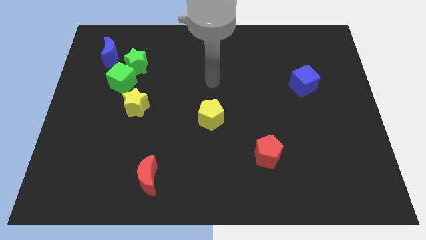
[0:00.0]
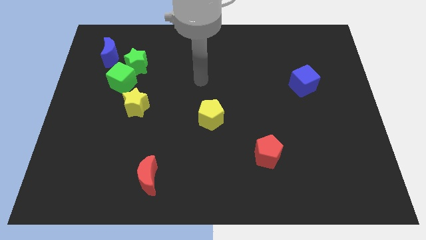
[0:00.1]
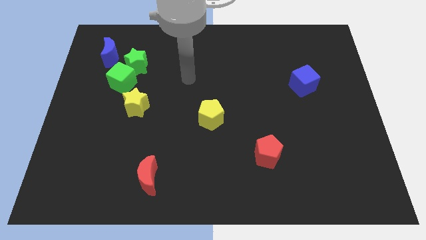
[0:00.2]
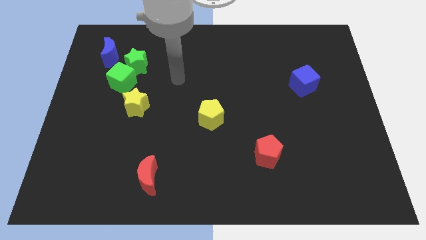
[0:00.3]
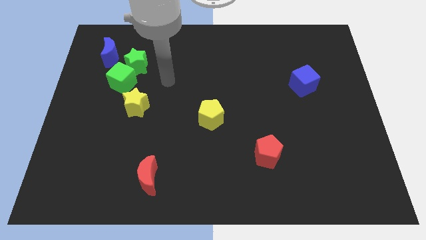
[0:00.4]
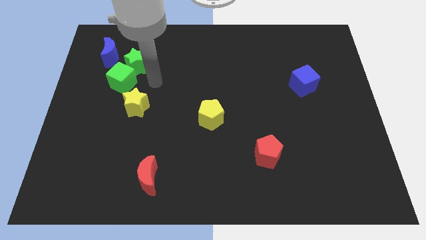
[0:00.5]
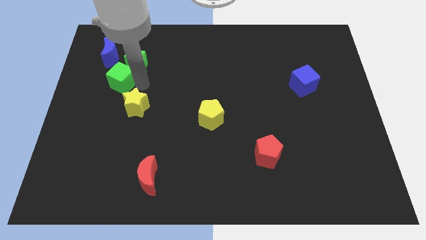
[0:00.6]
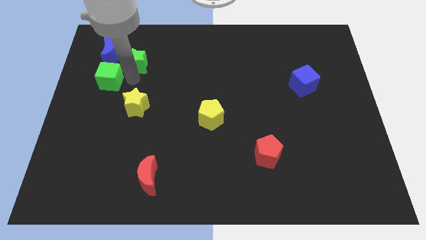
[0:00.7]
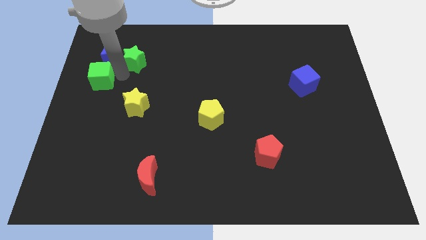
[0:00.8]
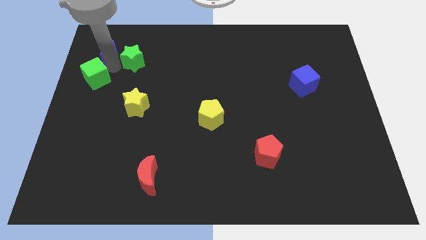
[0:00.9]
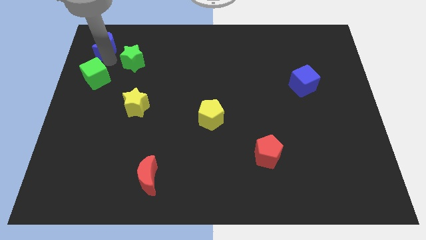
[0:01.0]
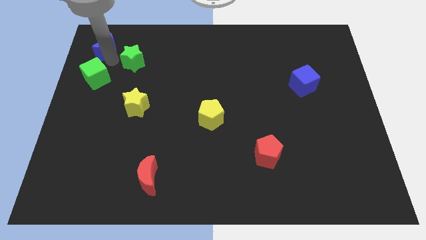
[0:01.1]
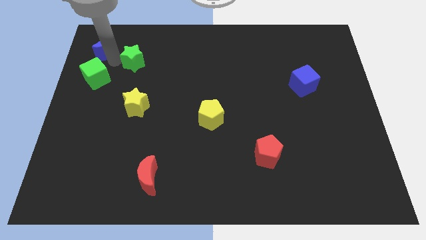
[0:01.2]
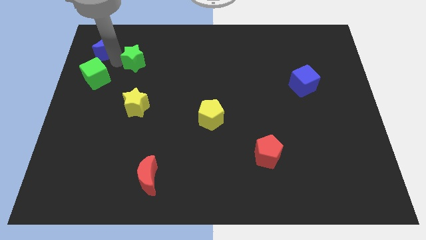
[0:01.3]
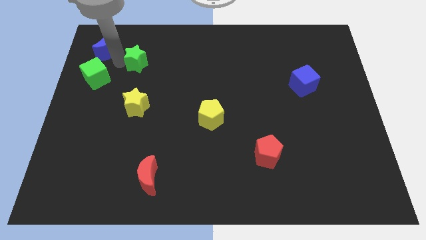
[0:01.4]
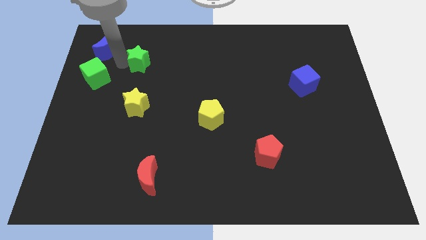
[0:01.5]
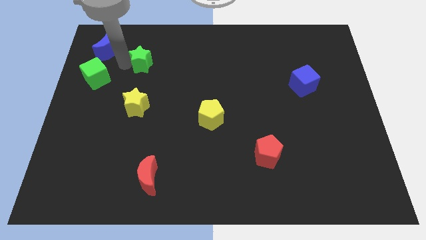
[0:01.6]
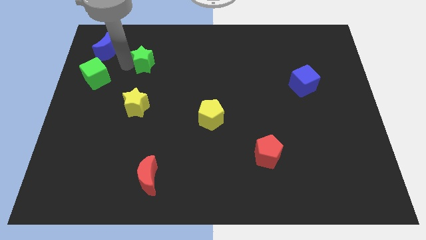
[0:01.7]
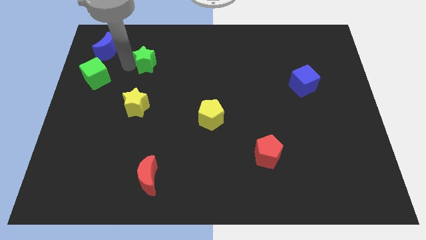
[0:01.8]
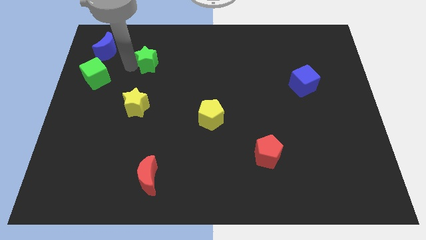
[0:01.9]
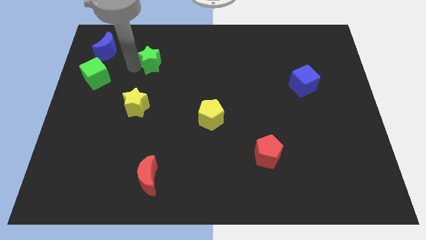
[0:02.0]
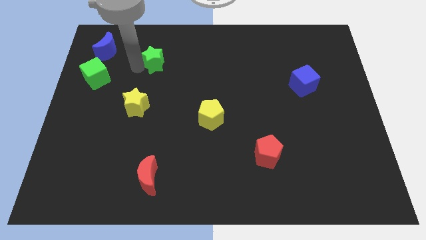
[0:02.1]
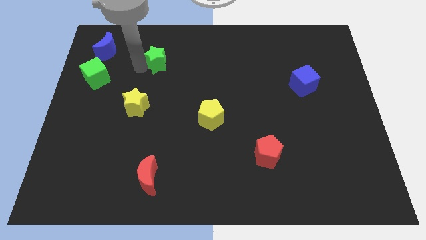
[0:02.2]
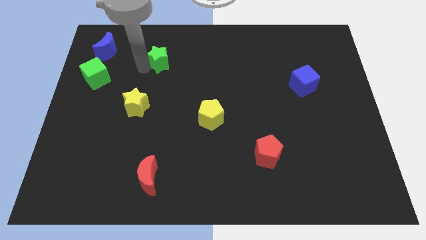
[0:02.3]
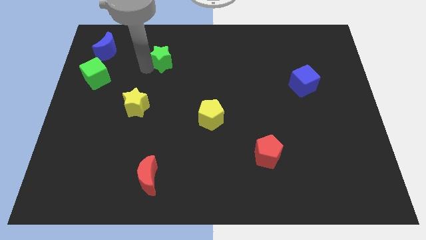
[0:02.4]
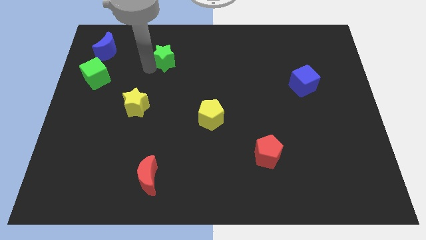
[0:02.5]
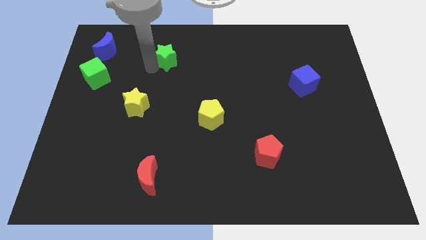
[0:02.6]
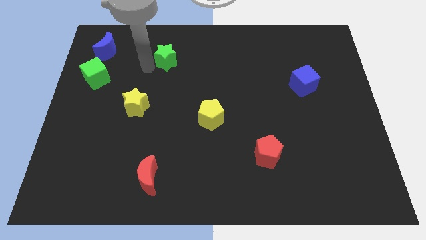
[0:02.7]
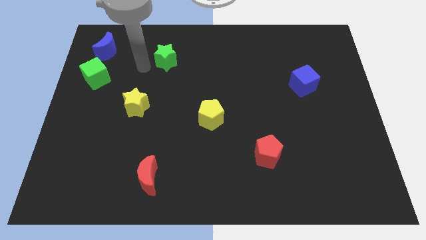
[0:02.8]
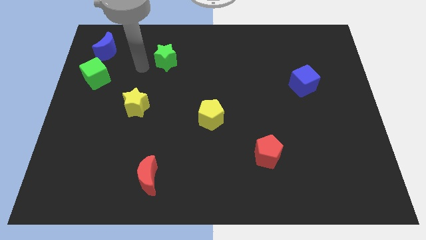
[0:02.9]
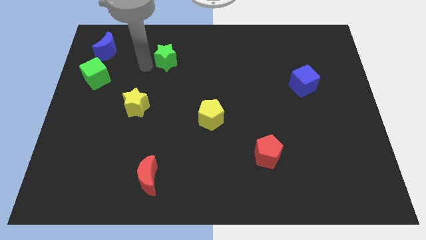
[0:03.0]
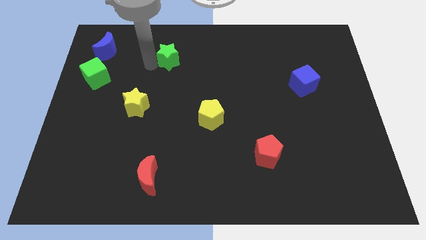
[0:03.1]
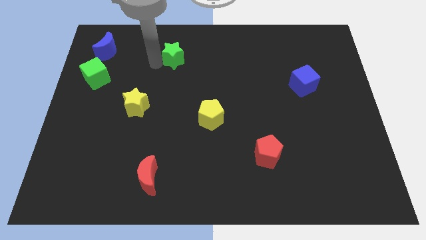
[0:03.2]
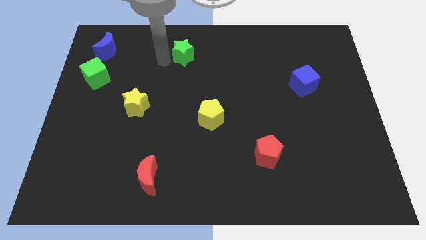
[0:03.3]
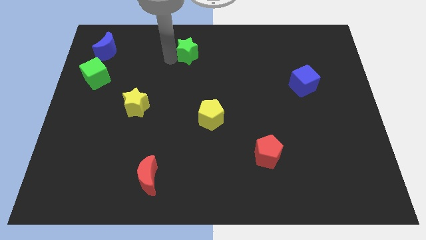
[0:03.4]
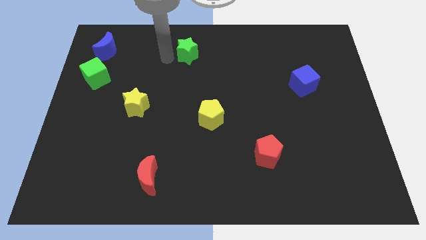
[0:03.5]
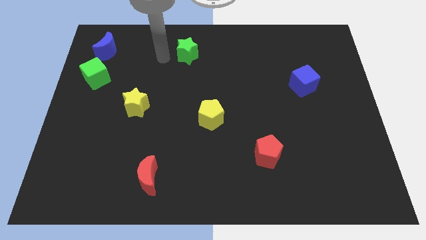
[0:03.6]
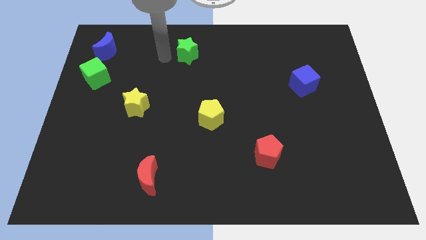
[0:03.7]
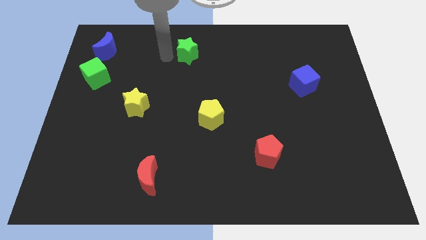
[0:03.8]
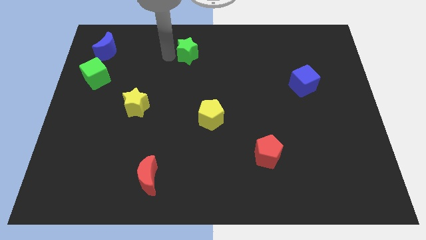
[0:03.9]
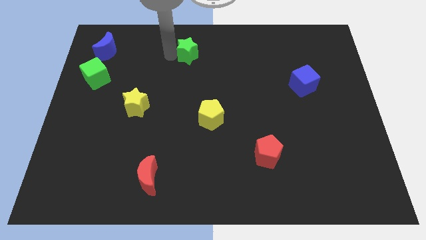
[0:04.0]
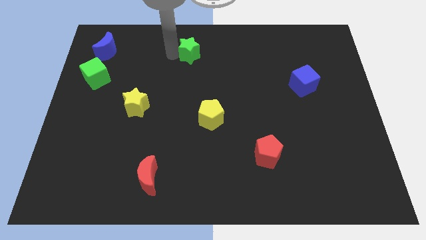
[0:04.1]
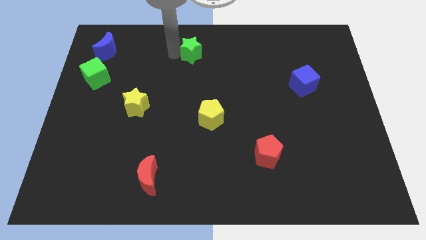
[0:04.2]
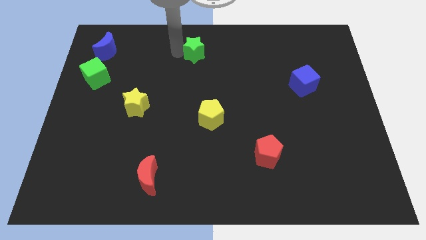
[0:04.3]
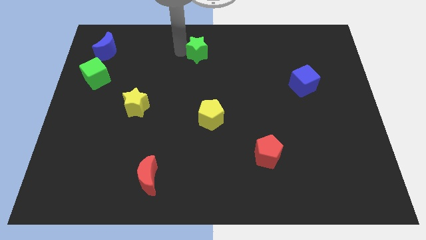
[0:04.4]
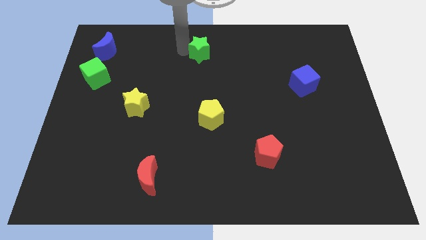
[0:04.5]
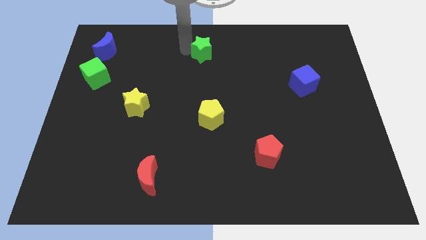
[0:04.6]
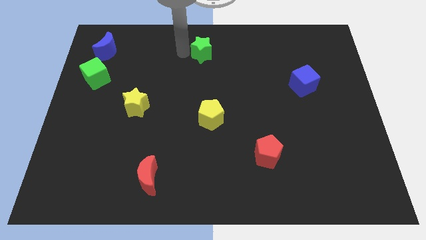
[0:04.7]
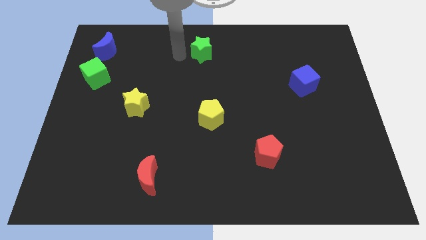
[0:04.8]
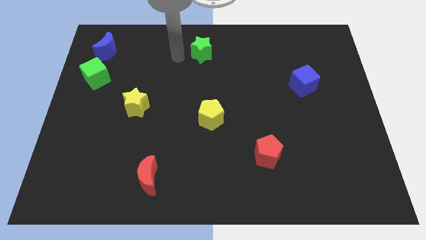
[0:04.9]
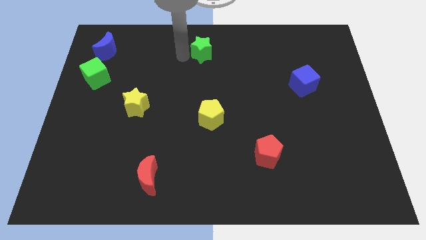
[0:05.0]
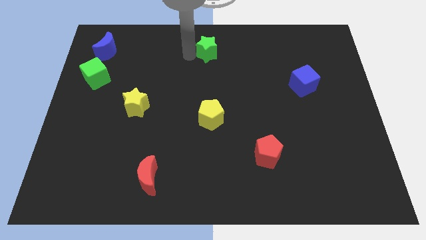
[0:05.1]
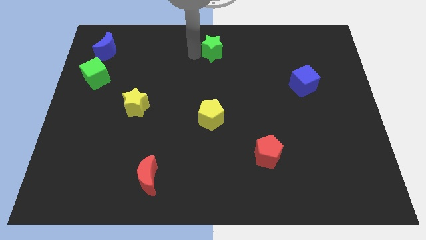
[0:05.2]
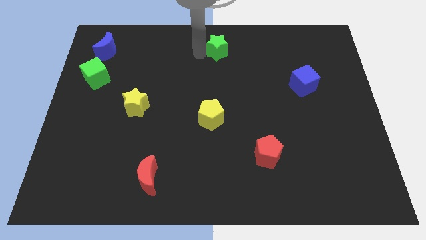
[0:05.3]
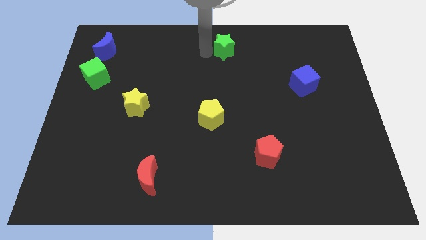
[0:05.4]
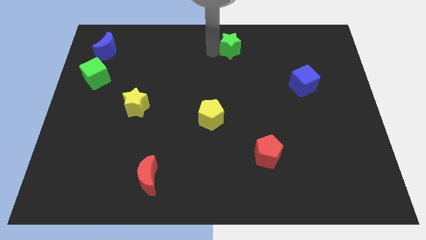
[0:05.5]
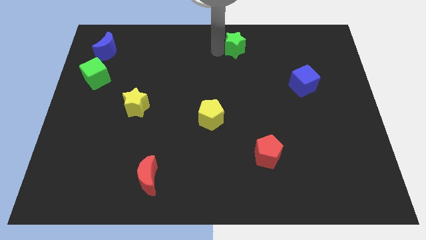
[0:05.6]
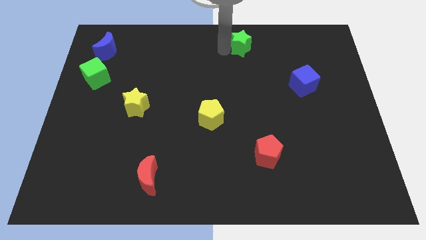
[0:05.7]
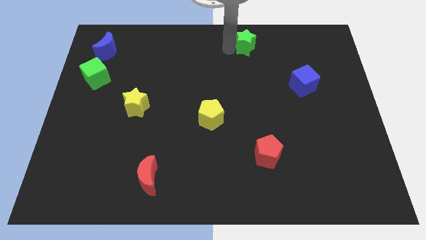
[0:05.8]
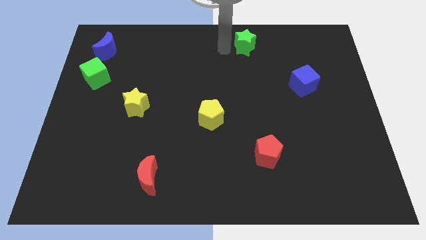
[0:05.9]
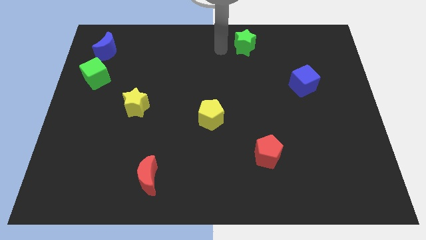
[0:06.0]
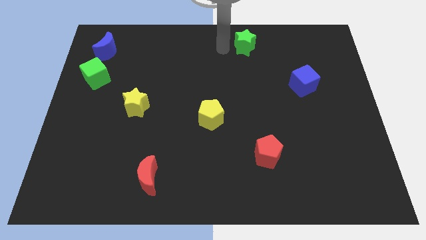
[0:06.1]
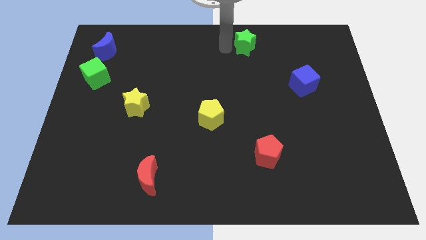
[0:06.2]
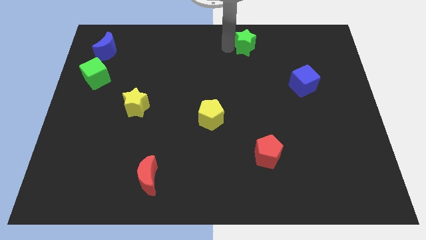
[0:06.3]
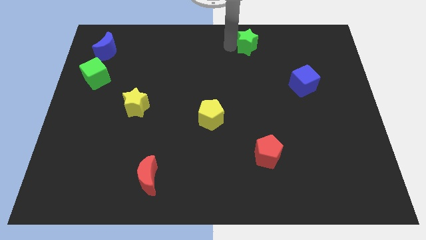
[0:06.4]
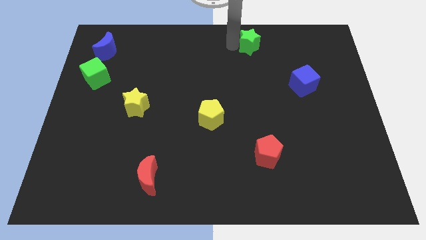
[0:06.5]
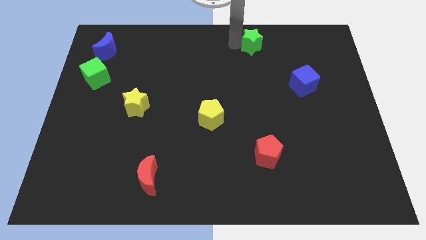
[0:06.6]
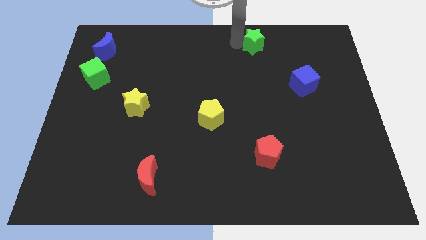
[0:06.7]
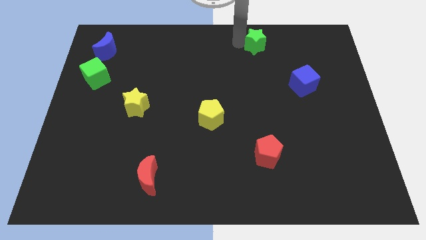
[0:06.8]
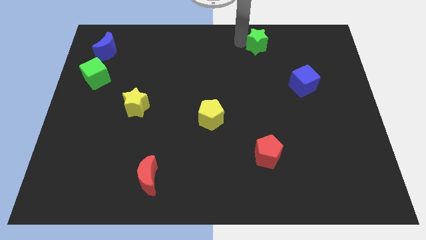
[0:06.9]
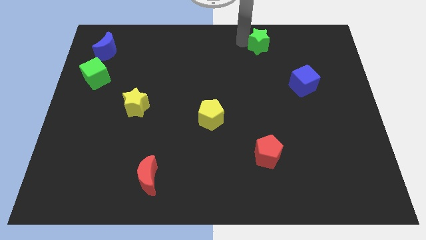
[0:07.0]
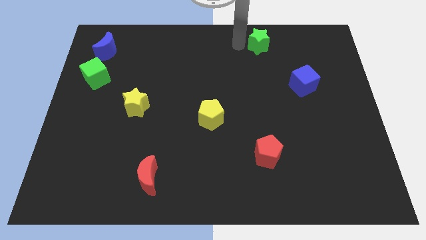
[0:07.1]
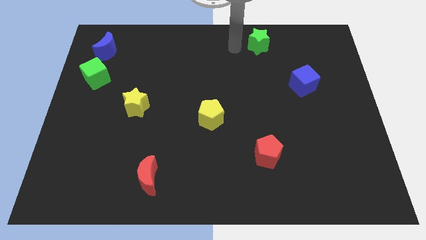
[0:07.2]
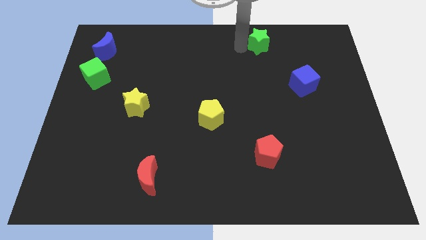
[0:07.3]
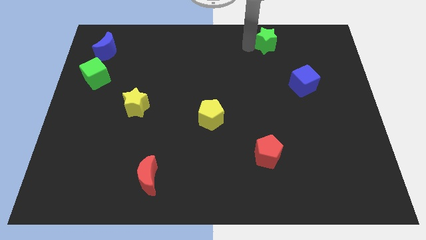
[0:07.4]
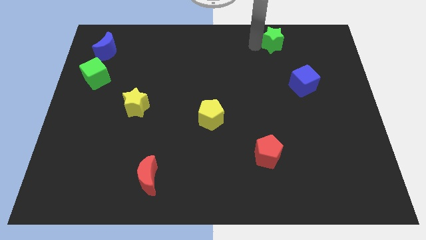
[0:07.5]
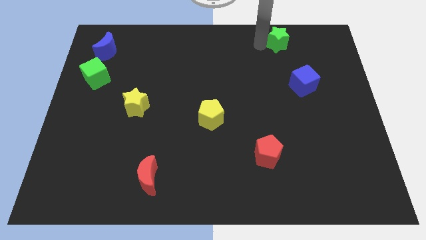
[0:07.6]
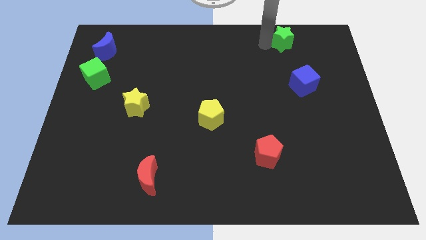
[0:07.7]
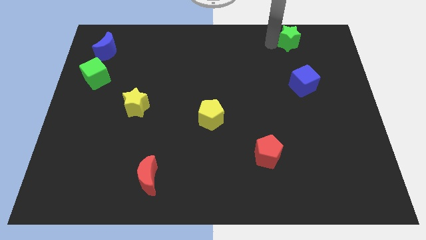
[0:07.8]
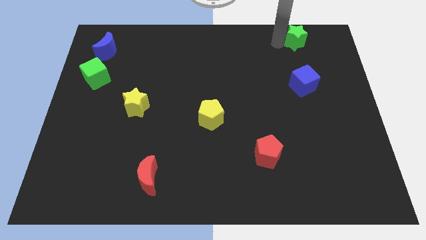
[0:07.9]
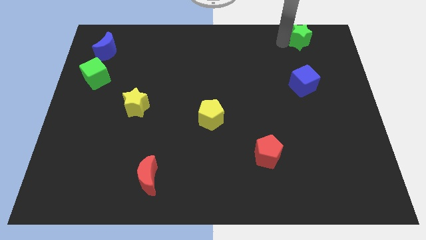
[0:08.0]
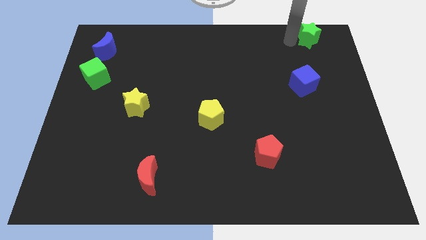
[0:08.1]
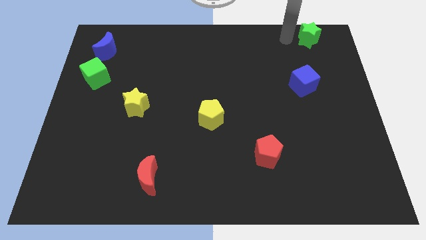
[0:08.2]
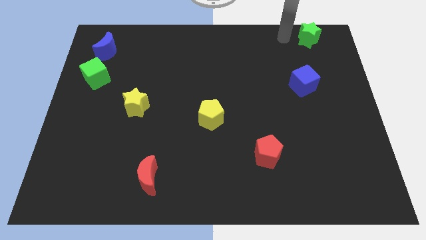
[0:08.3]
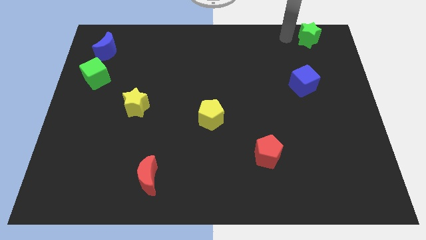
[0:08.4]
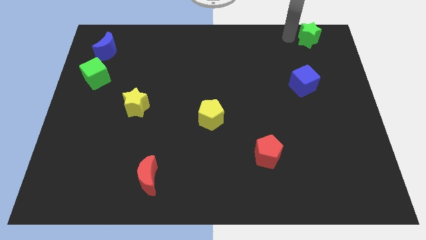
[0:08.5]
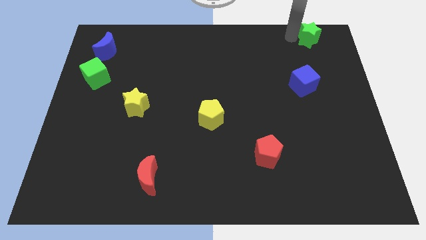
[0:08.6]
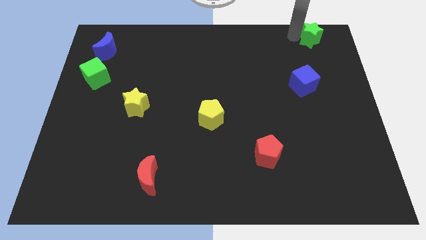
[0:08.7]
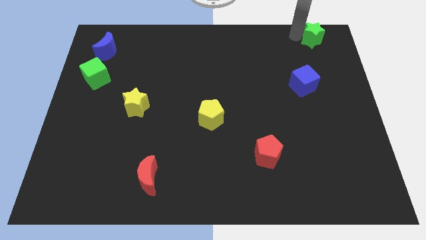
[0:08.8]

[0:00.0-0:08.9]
push the green star to the top right
